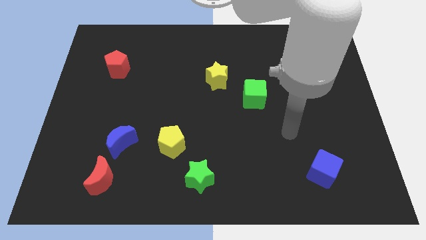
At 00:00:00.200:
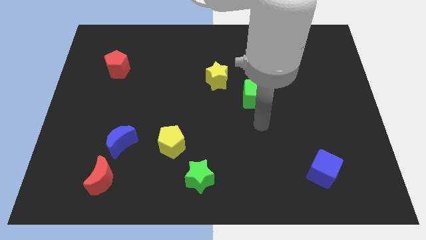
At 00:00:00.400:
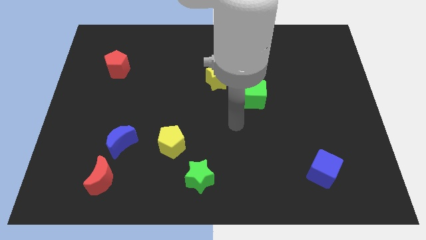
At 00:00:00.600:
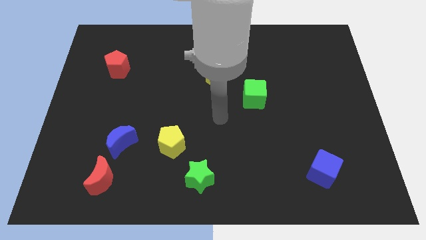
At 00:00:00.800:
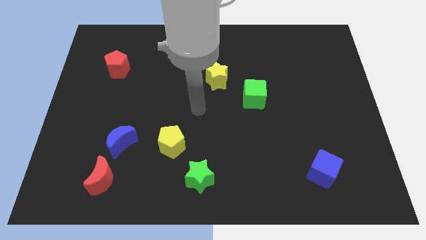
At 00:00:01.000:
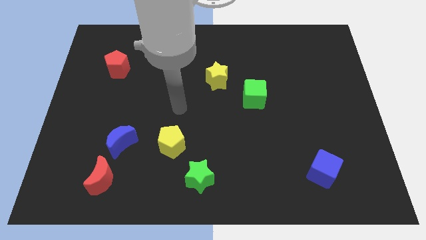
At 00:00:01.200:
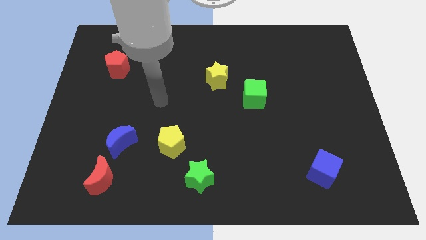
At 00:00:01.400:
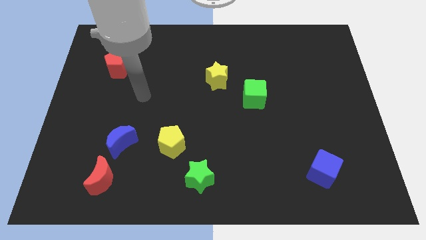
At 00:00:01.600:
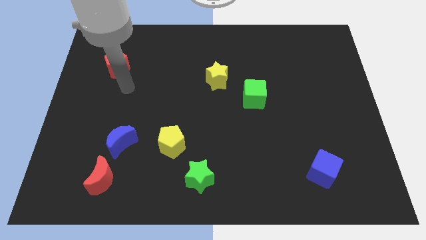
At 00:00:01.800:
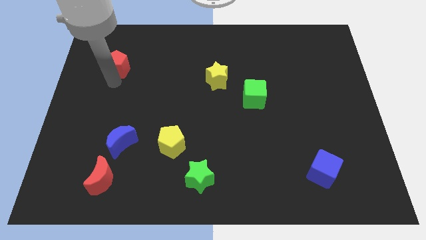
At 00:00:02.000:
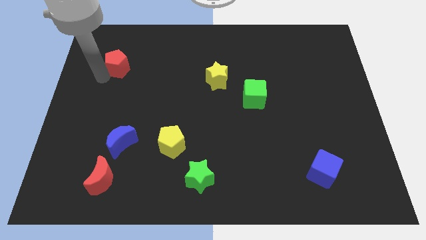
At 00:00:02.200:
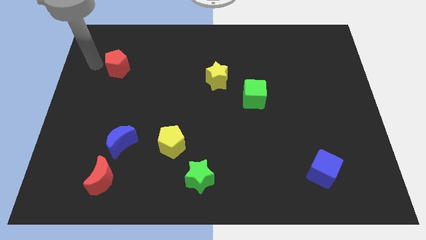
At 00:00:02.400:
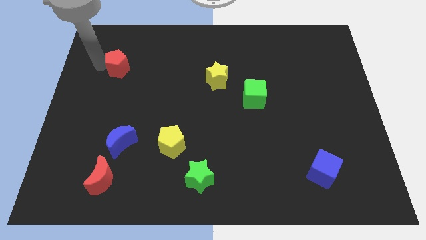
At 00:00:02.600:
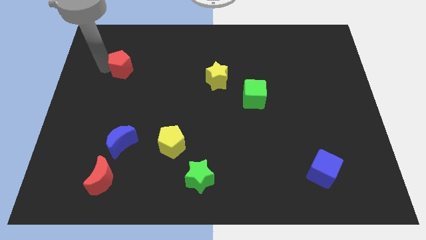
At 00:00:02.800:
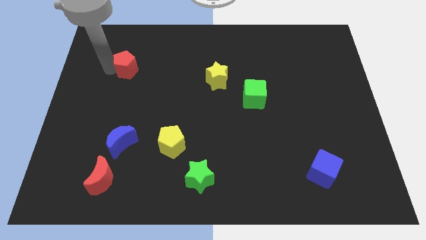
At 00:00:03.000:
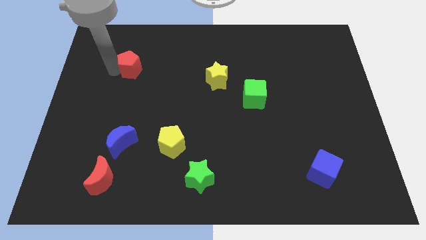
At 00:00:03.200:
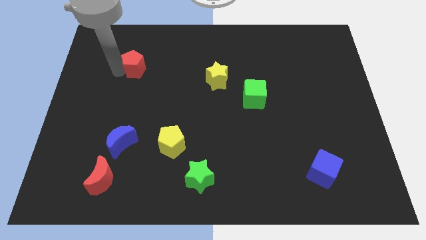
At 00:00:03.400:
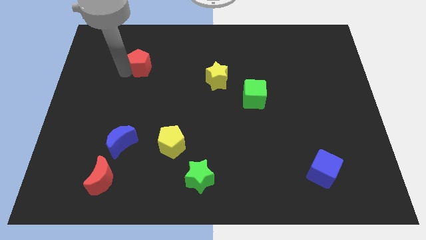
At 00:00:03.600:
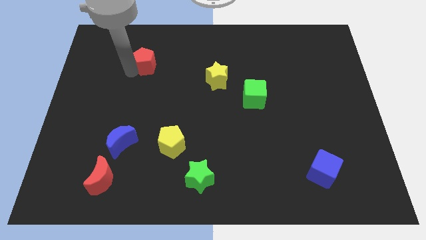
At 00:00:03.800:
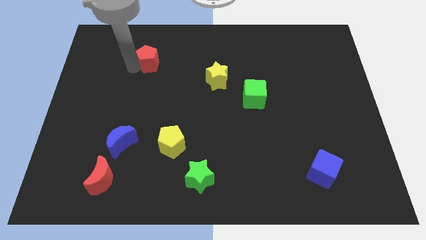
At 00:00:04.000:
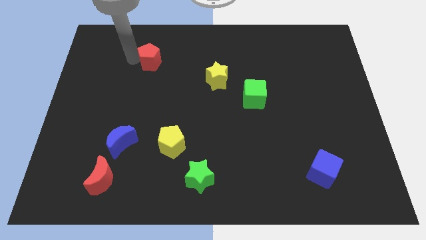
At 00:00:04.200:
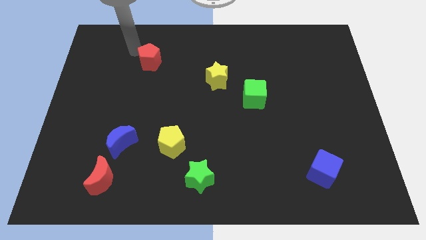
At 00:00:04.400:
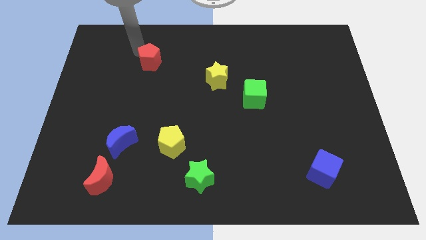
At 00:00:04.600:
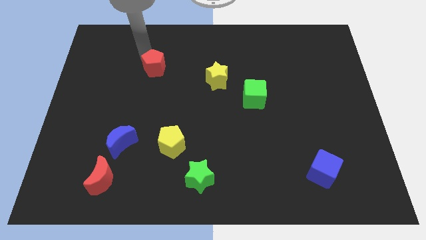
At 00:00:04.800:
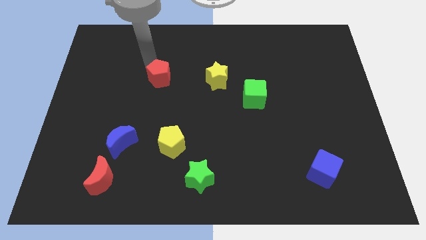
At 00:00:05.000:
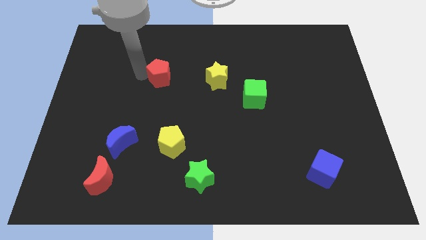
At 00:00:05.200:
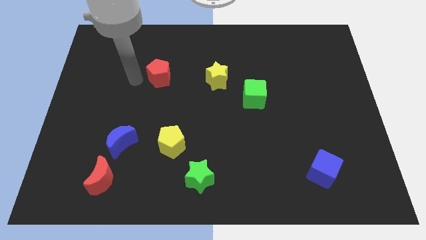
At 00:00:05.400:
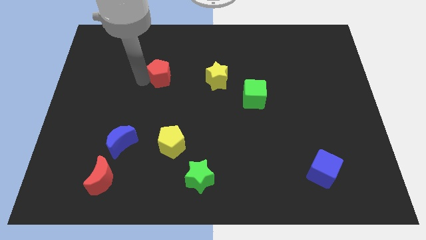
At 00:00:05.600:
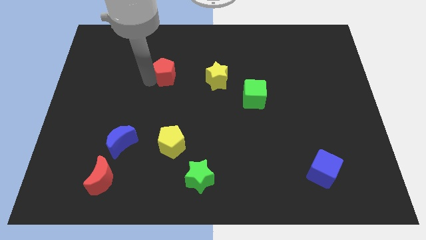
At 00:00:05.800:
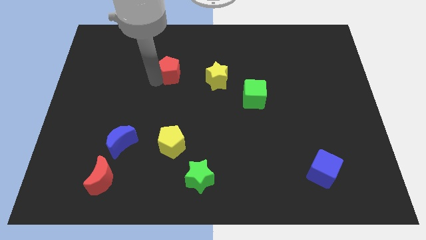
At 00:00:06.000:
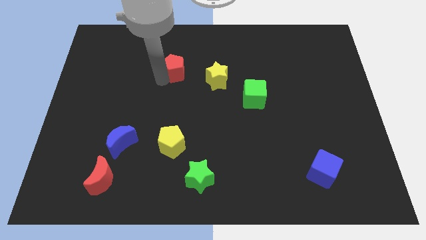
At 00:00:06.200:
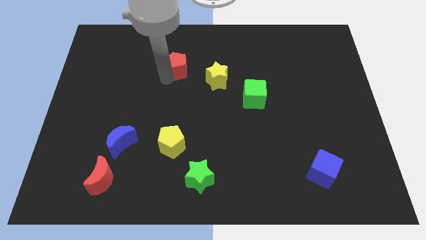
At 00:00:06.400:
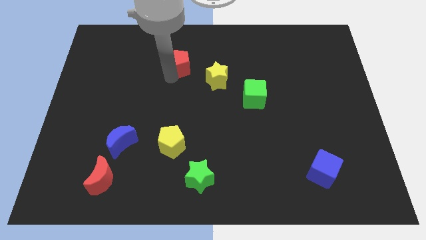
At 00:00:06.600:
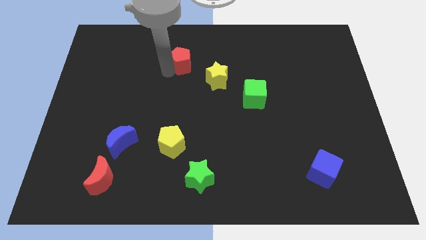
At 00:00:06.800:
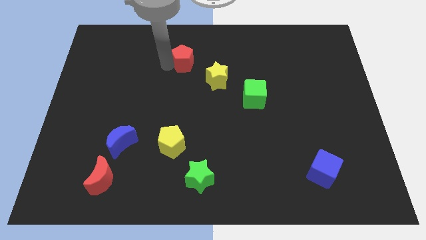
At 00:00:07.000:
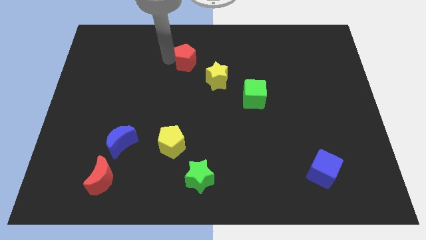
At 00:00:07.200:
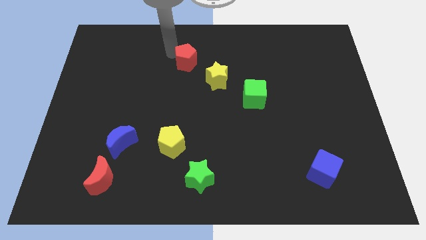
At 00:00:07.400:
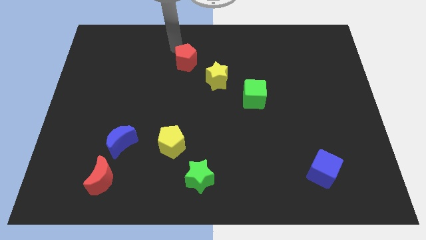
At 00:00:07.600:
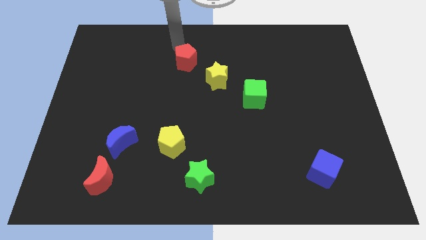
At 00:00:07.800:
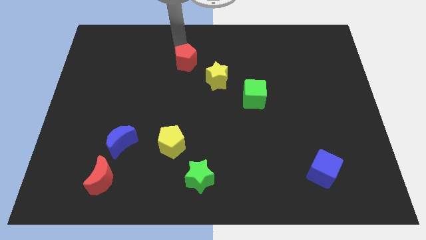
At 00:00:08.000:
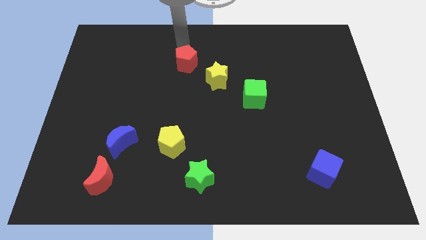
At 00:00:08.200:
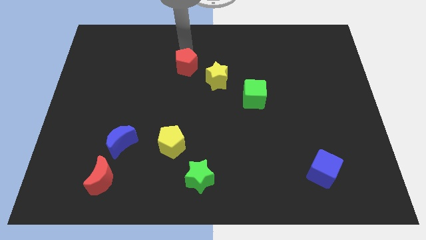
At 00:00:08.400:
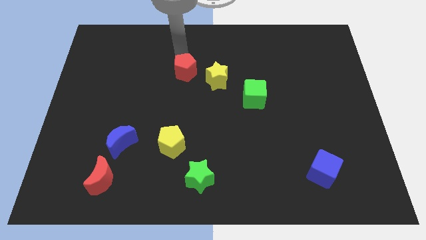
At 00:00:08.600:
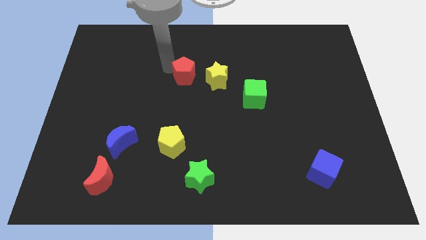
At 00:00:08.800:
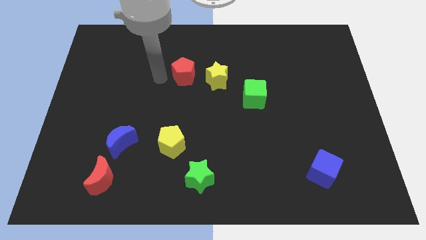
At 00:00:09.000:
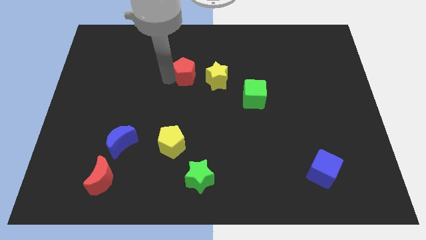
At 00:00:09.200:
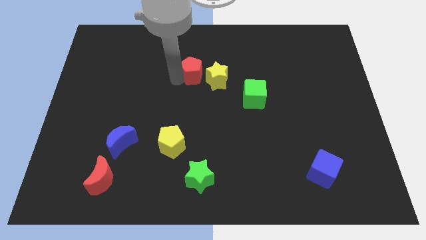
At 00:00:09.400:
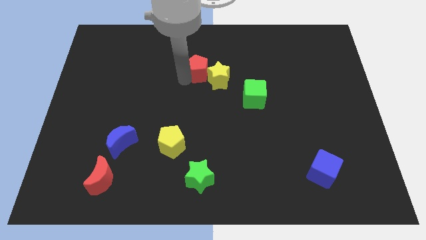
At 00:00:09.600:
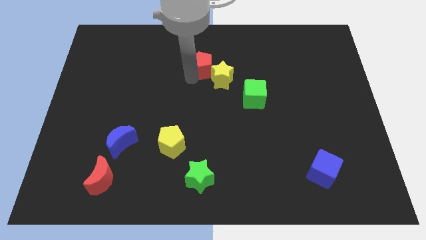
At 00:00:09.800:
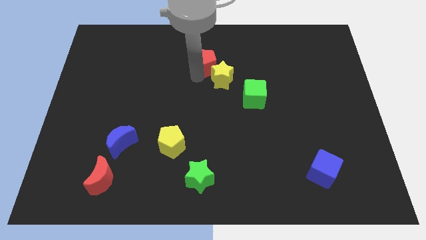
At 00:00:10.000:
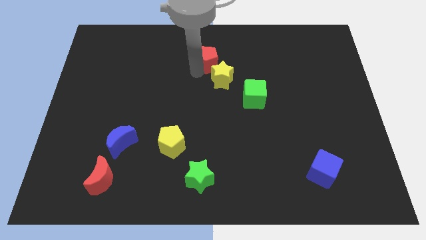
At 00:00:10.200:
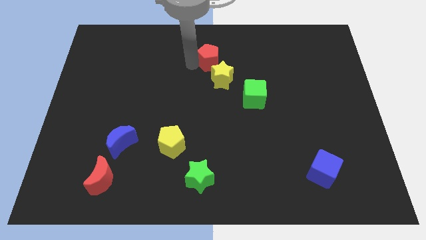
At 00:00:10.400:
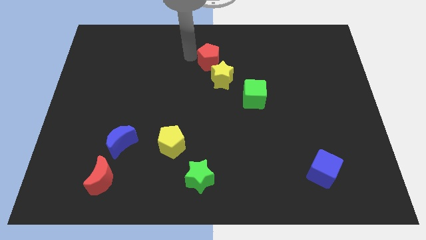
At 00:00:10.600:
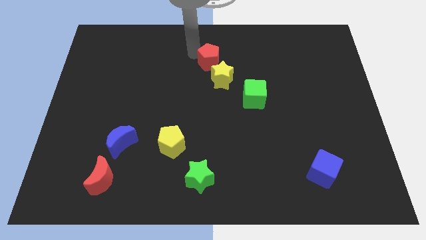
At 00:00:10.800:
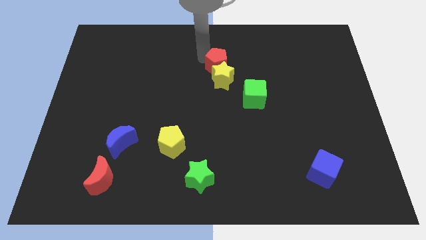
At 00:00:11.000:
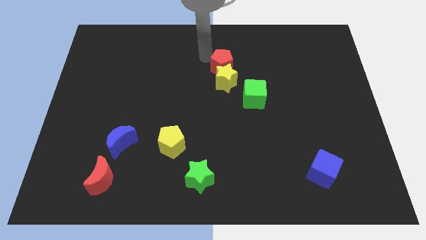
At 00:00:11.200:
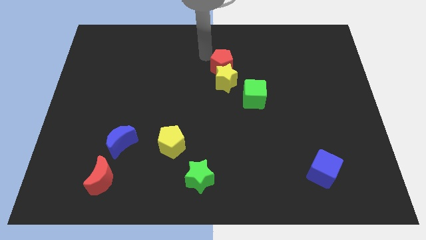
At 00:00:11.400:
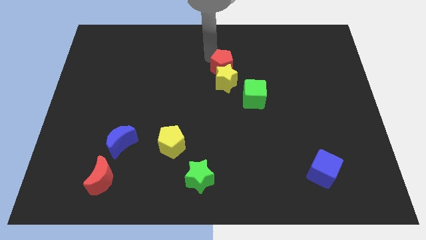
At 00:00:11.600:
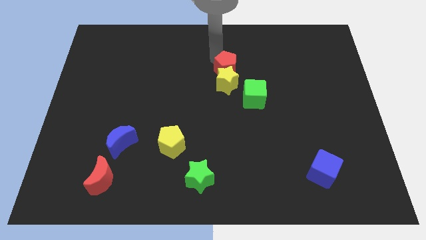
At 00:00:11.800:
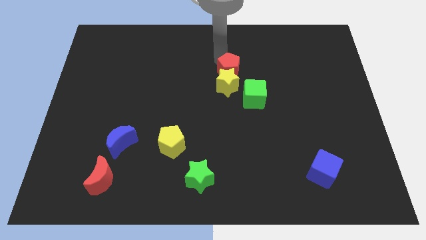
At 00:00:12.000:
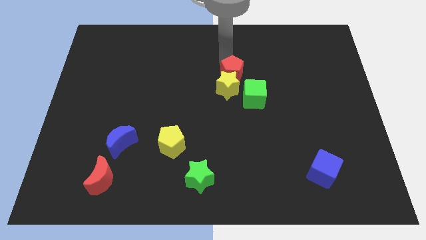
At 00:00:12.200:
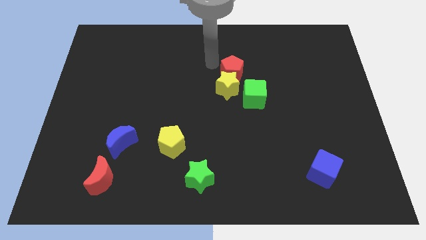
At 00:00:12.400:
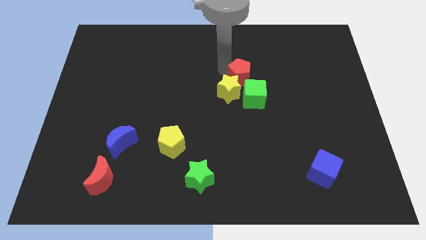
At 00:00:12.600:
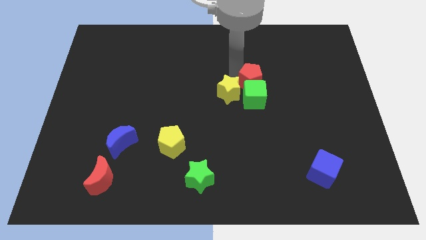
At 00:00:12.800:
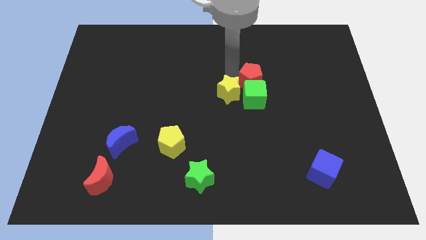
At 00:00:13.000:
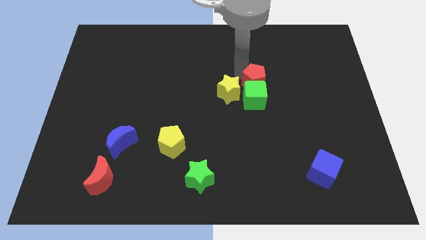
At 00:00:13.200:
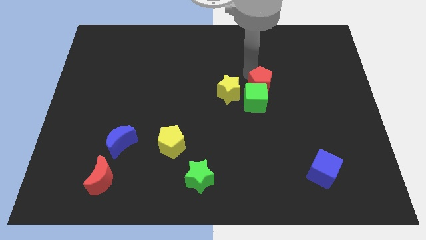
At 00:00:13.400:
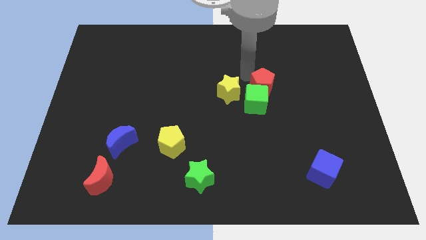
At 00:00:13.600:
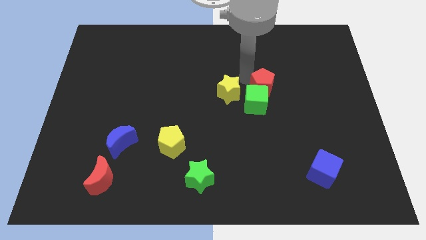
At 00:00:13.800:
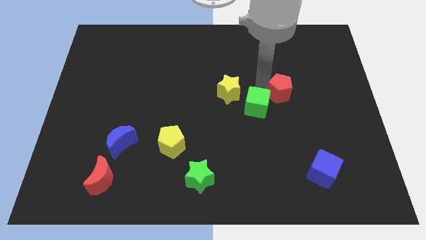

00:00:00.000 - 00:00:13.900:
push the red pentagon just right of the green cube
